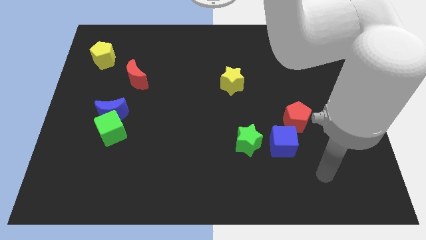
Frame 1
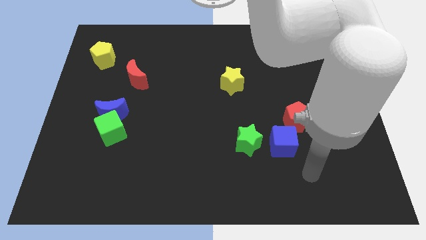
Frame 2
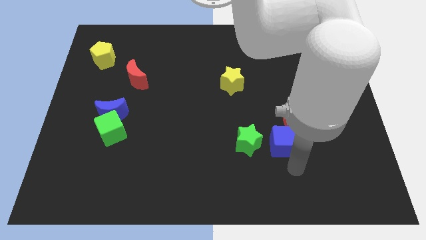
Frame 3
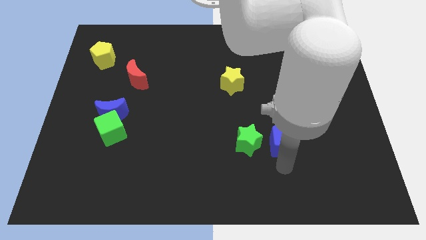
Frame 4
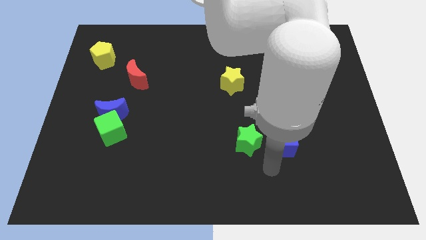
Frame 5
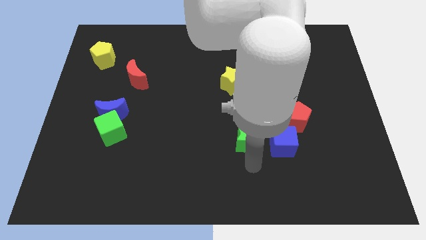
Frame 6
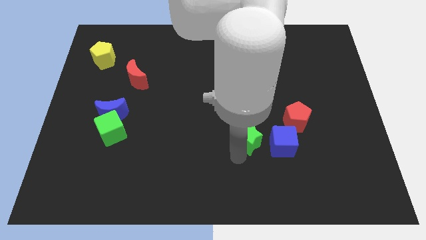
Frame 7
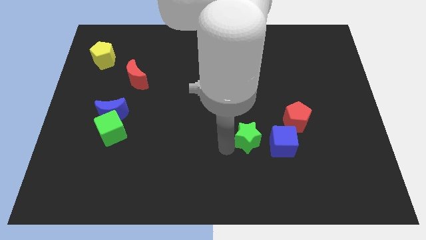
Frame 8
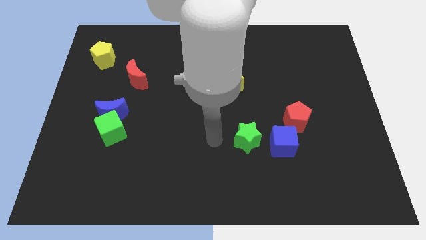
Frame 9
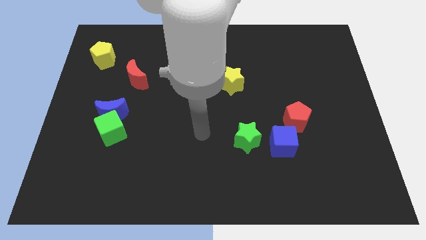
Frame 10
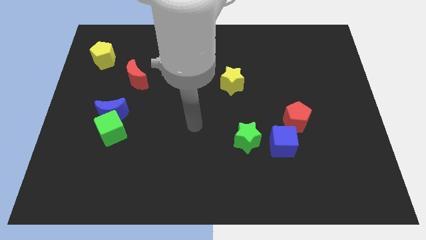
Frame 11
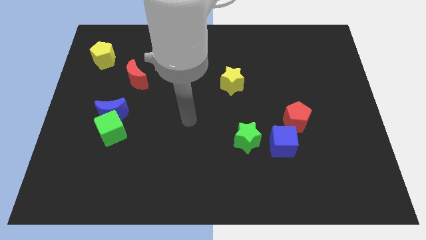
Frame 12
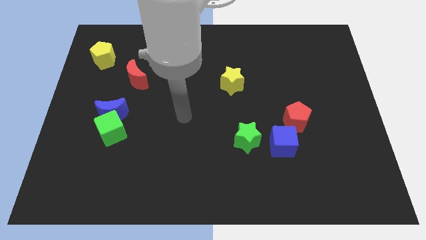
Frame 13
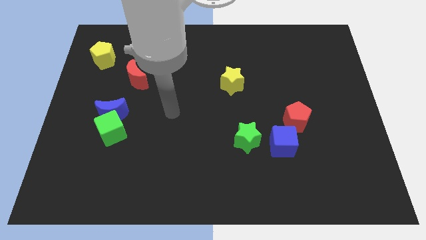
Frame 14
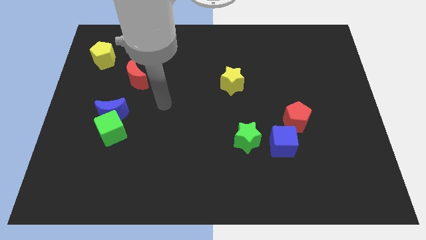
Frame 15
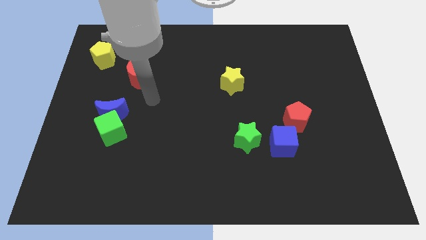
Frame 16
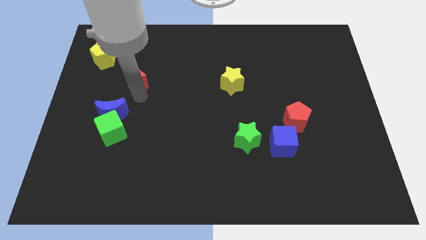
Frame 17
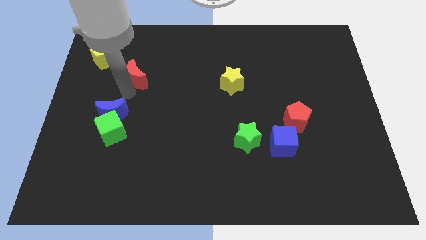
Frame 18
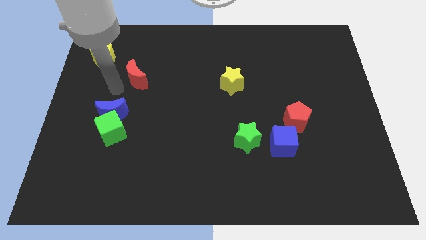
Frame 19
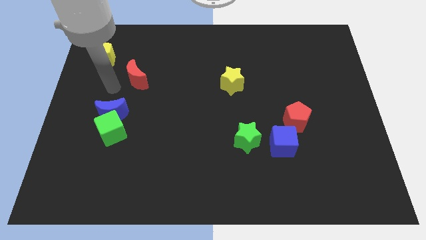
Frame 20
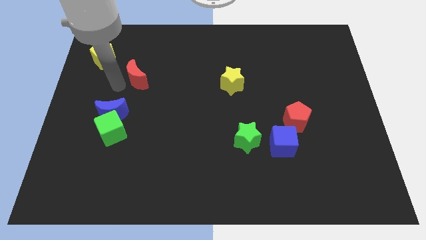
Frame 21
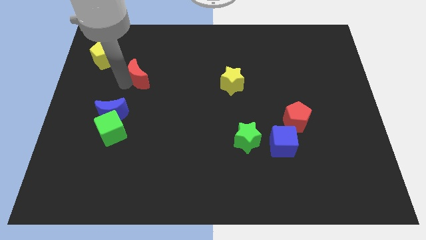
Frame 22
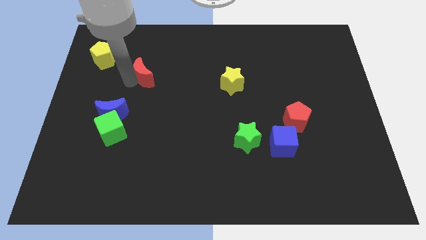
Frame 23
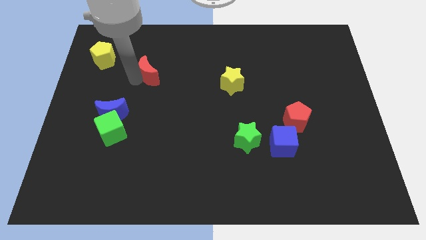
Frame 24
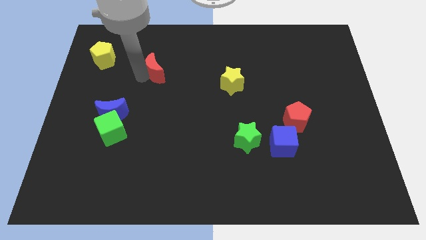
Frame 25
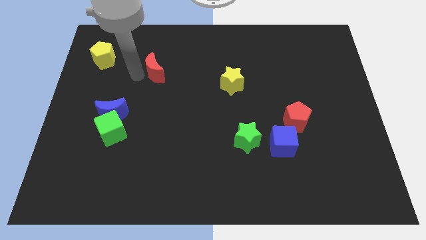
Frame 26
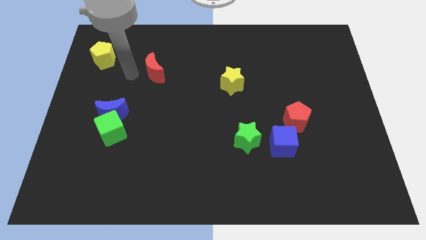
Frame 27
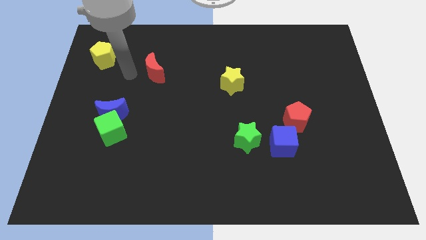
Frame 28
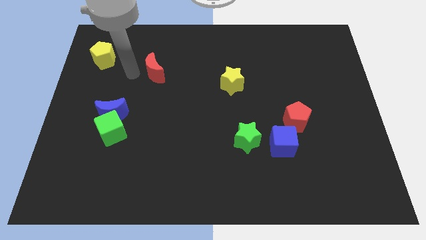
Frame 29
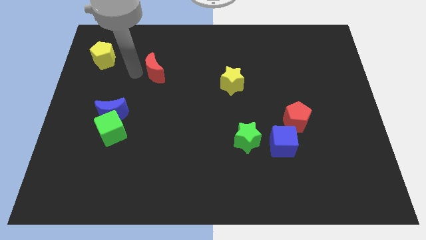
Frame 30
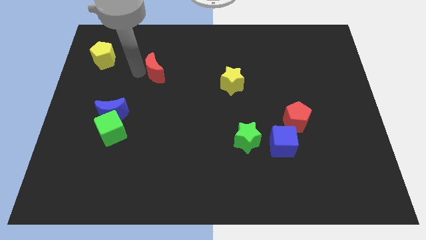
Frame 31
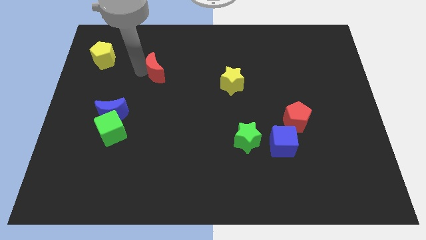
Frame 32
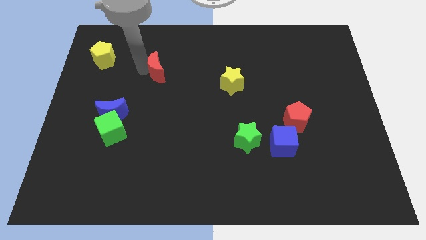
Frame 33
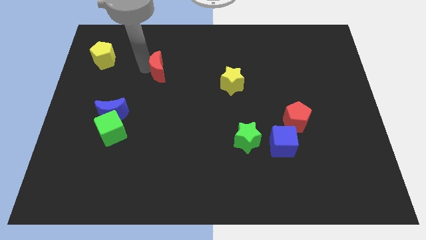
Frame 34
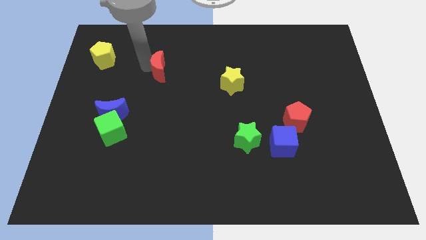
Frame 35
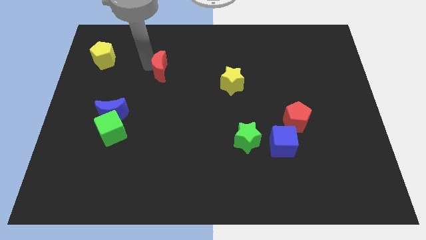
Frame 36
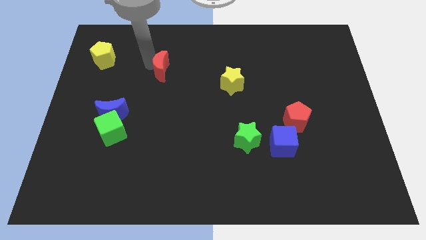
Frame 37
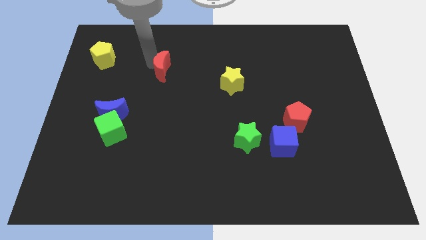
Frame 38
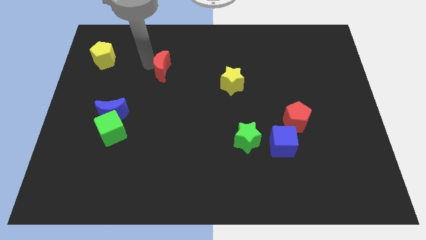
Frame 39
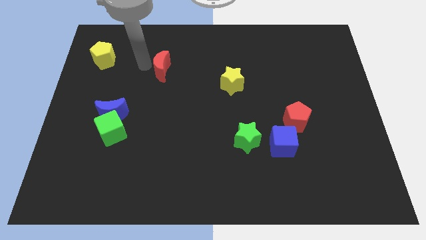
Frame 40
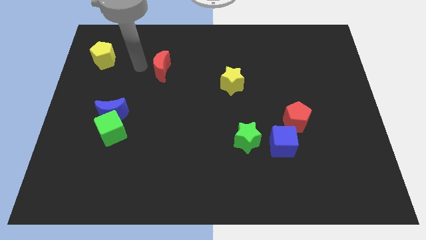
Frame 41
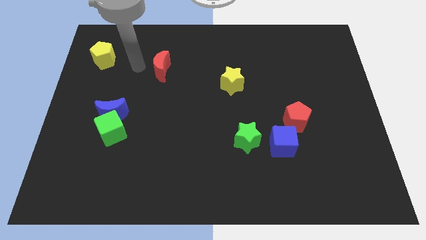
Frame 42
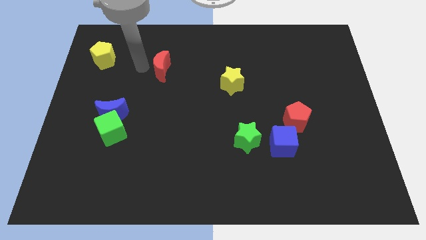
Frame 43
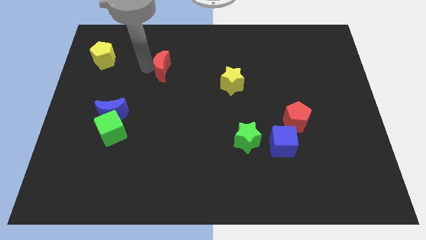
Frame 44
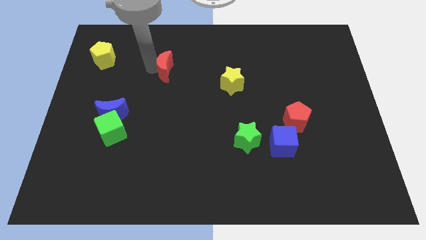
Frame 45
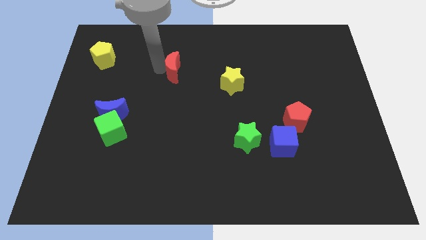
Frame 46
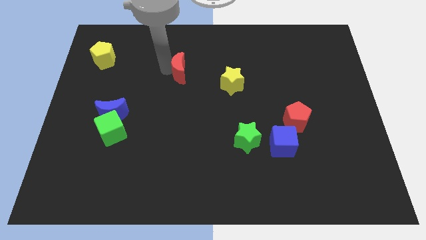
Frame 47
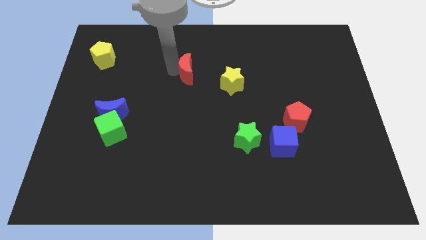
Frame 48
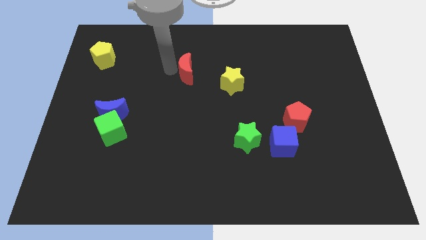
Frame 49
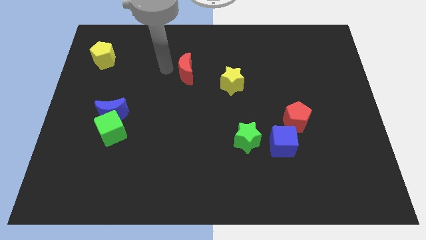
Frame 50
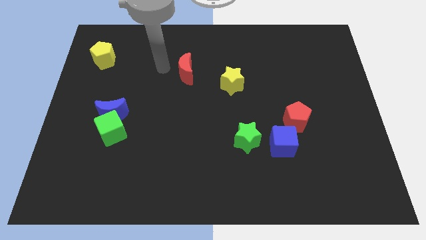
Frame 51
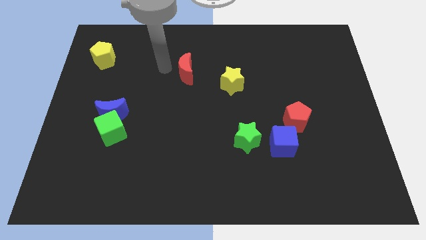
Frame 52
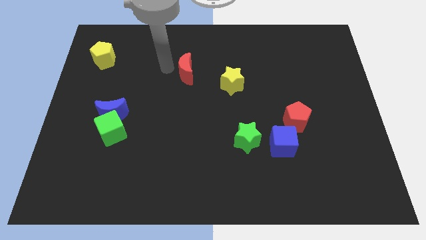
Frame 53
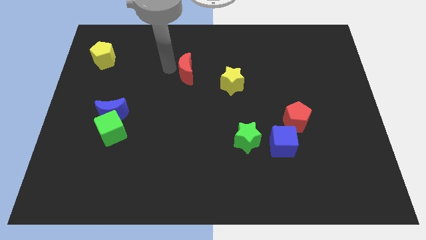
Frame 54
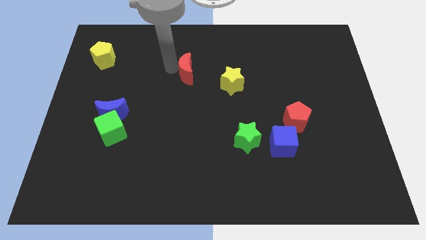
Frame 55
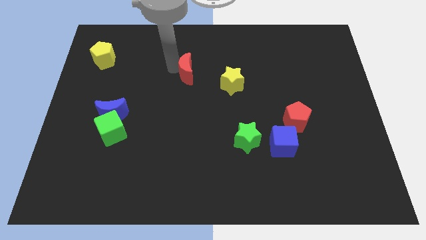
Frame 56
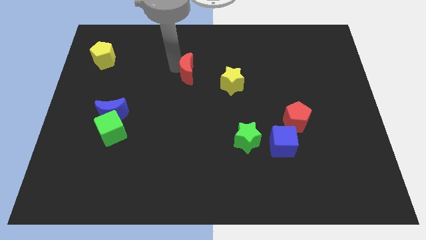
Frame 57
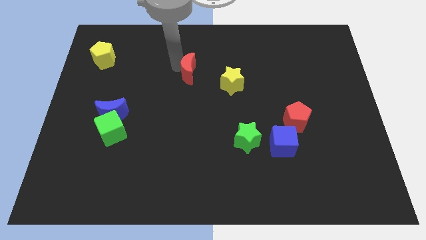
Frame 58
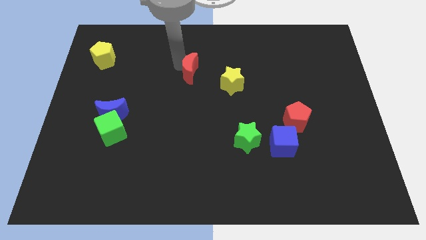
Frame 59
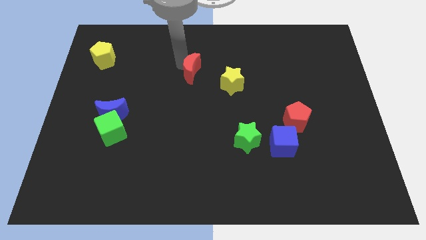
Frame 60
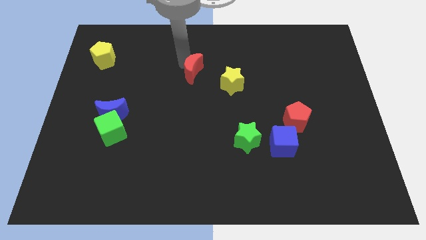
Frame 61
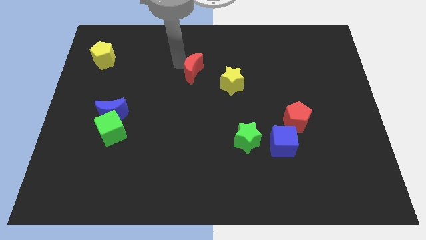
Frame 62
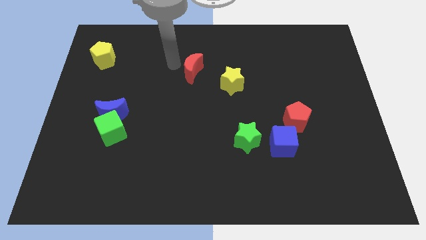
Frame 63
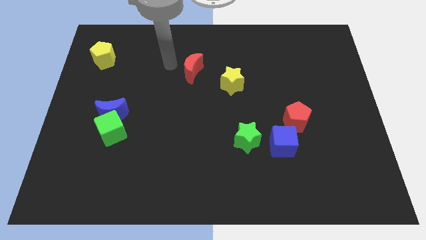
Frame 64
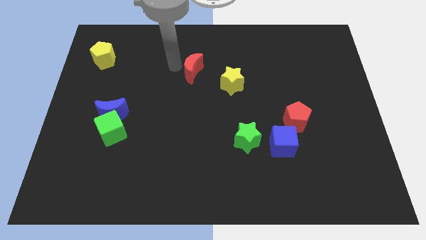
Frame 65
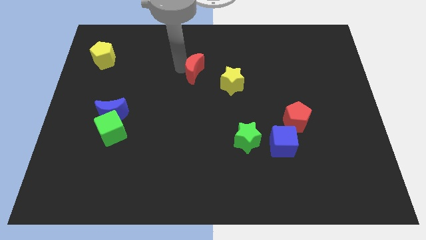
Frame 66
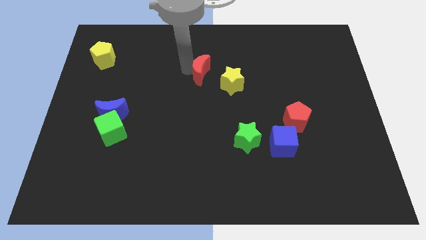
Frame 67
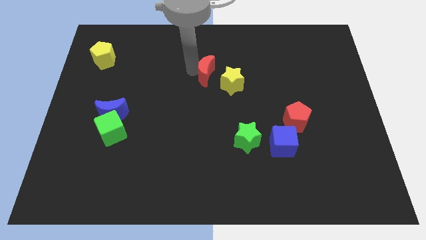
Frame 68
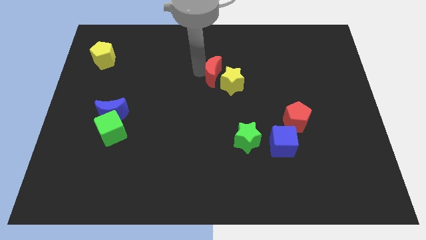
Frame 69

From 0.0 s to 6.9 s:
put the red moon to the yellow star

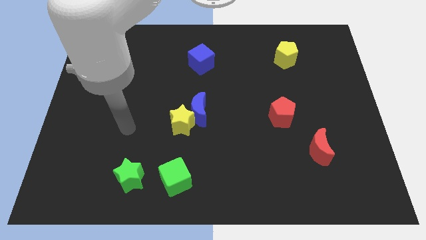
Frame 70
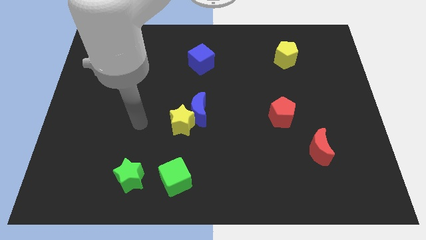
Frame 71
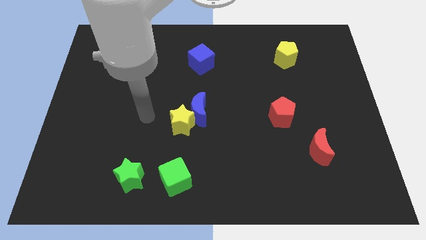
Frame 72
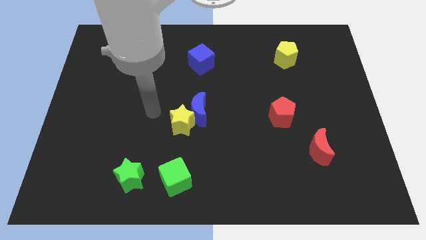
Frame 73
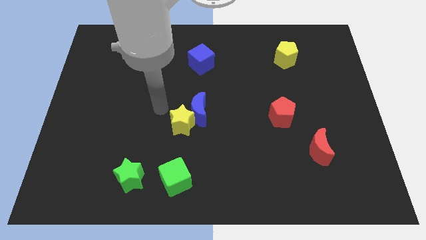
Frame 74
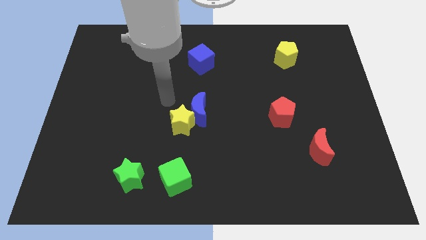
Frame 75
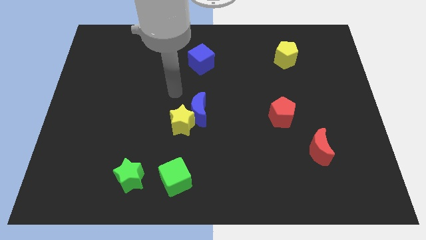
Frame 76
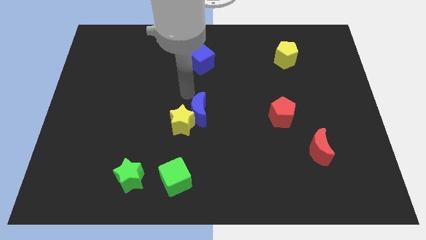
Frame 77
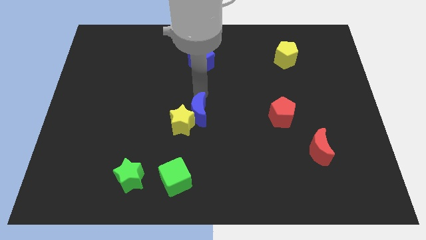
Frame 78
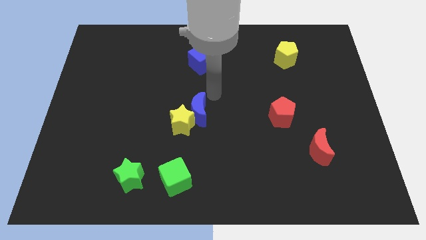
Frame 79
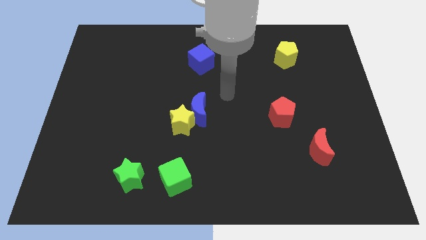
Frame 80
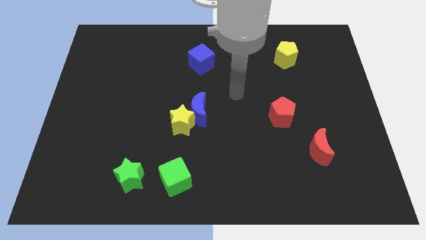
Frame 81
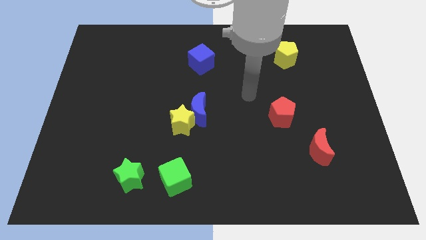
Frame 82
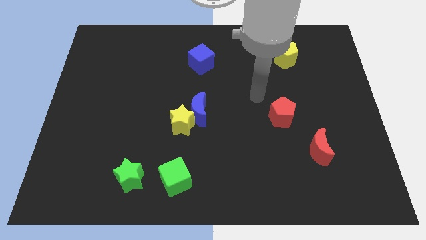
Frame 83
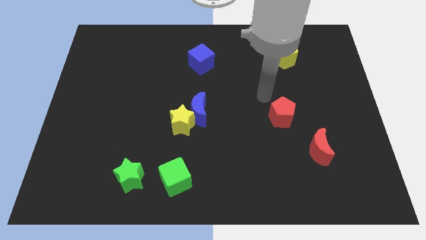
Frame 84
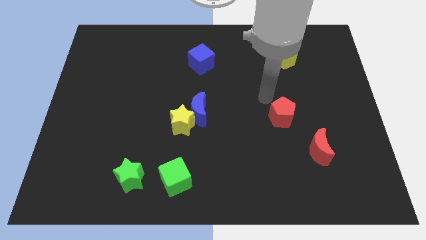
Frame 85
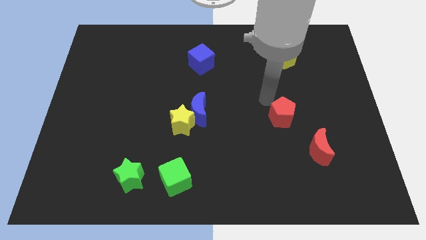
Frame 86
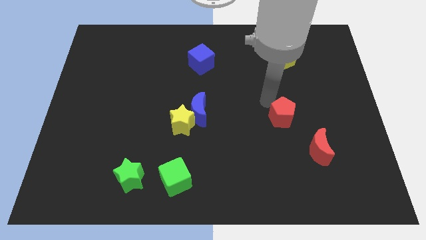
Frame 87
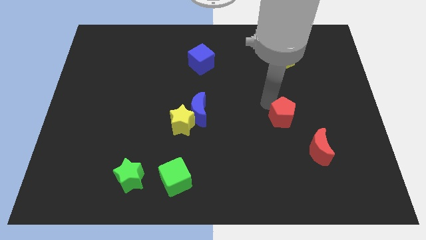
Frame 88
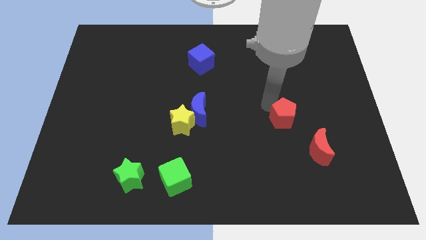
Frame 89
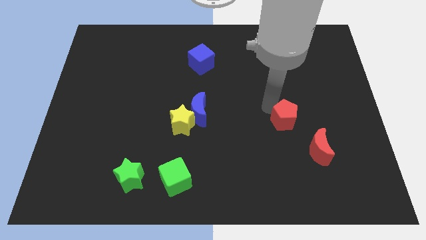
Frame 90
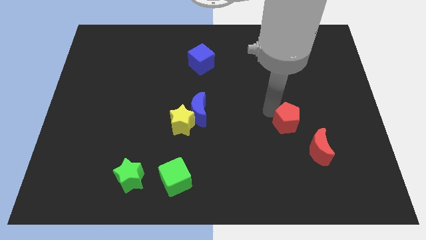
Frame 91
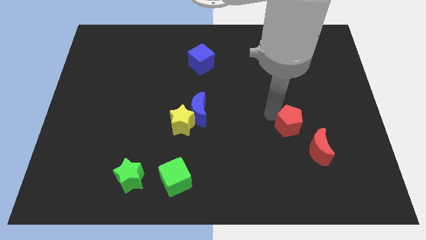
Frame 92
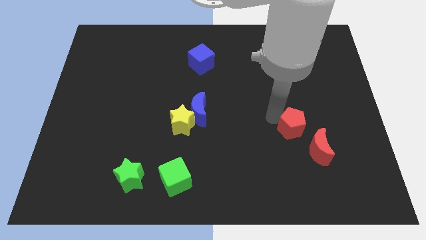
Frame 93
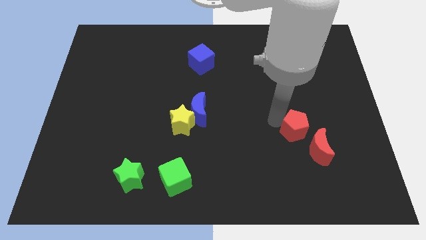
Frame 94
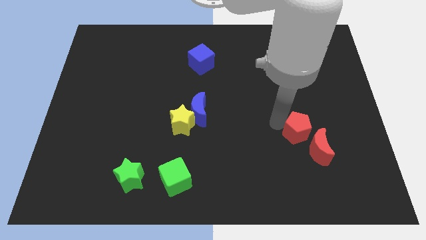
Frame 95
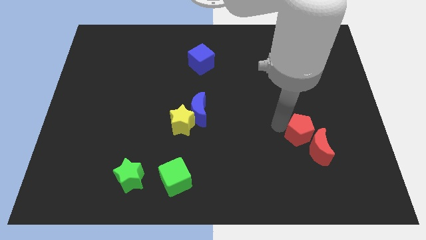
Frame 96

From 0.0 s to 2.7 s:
put the red pentagon towards the red moon
